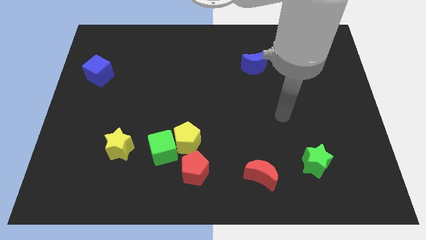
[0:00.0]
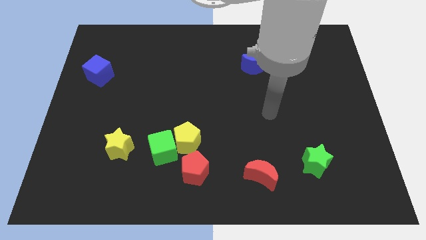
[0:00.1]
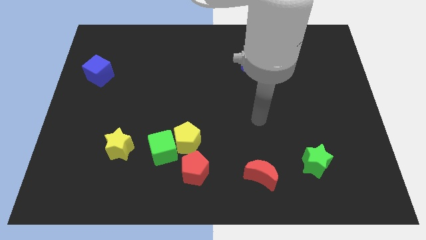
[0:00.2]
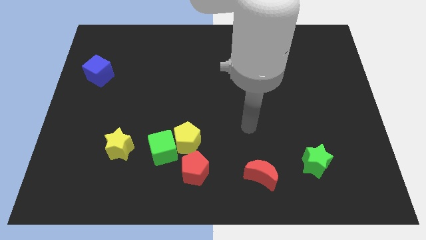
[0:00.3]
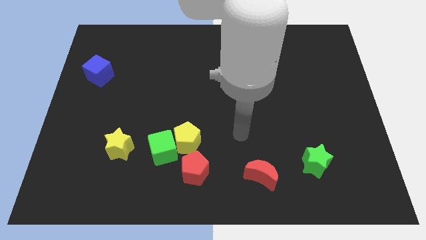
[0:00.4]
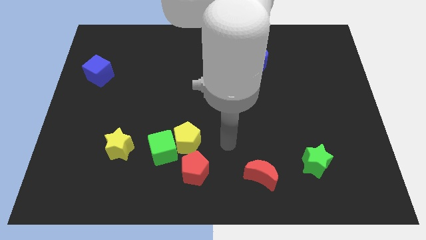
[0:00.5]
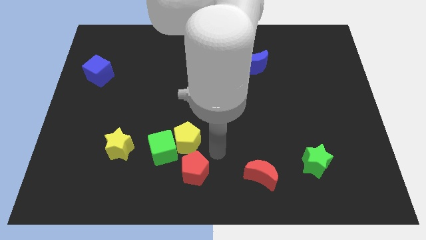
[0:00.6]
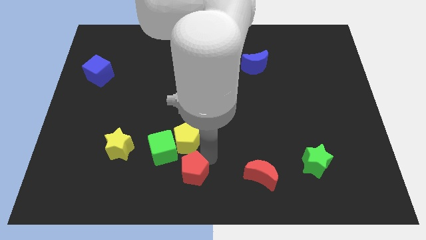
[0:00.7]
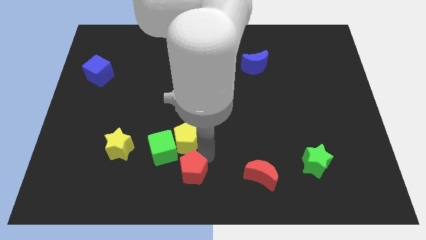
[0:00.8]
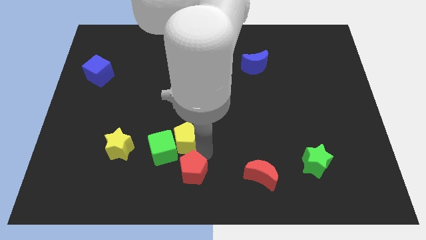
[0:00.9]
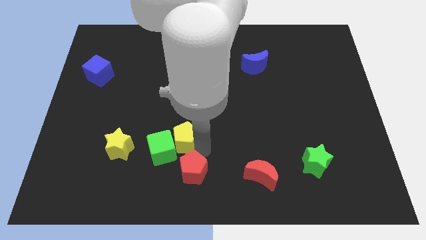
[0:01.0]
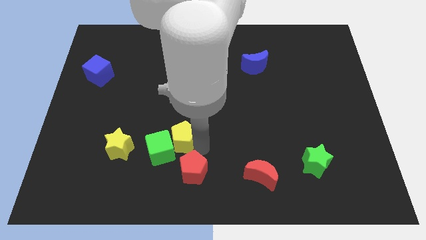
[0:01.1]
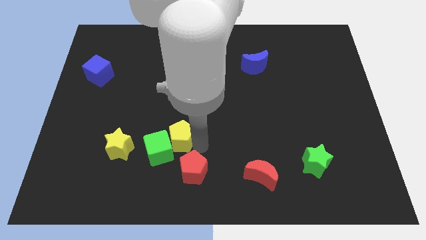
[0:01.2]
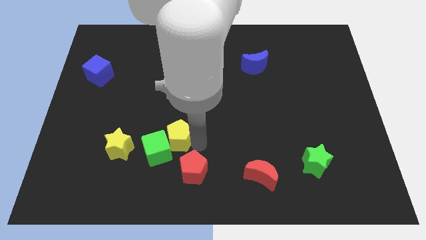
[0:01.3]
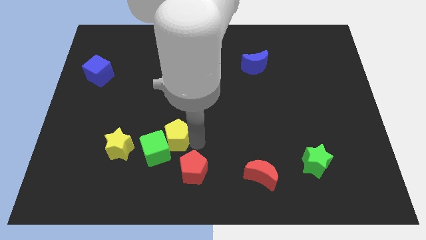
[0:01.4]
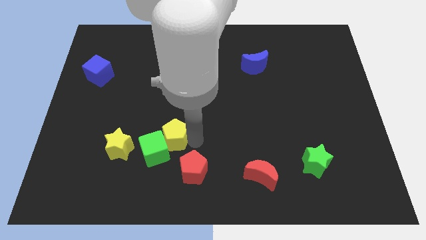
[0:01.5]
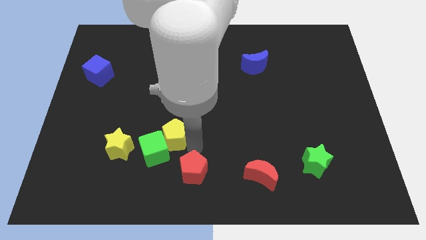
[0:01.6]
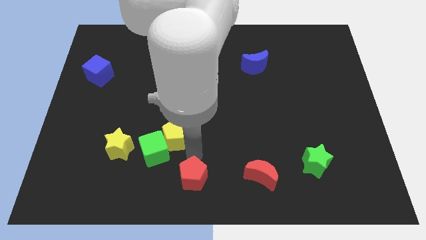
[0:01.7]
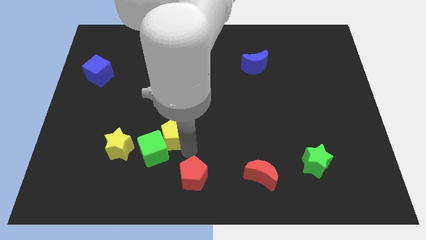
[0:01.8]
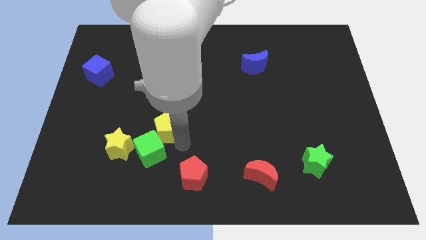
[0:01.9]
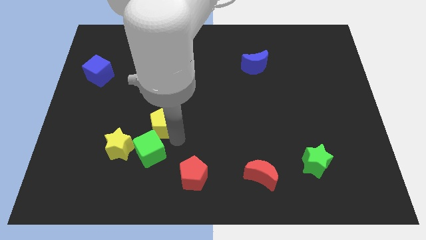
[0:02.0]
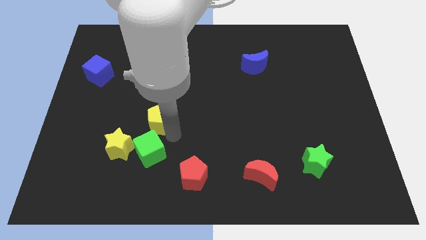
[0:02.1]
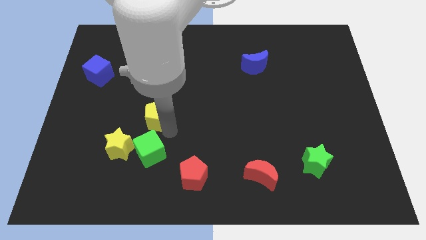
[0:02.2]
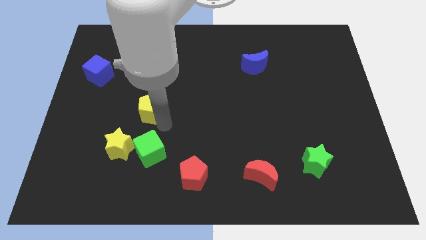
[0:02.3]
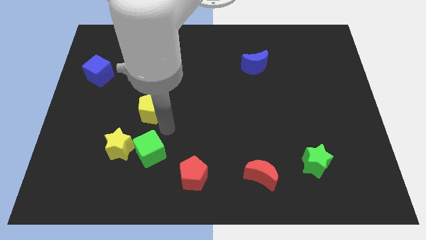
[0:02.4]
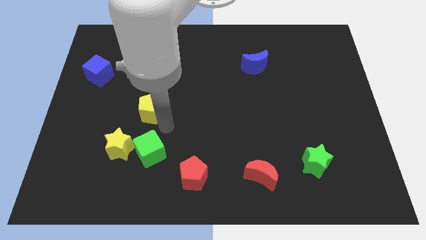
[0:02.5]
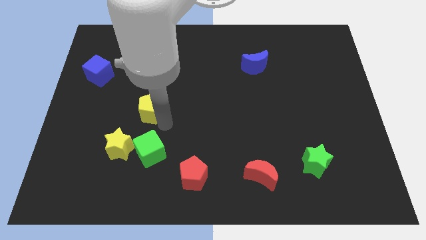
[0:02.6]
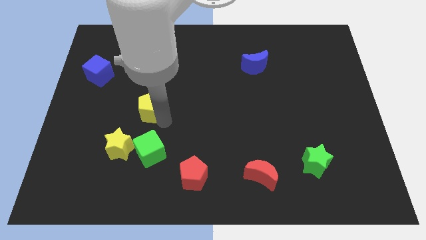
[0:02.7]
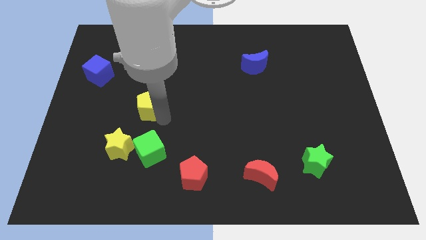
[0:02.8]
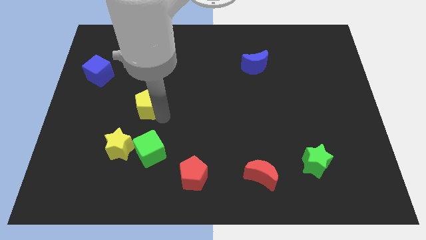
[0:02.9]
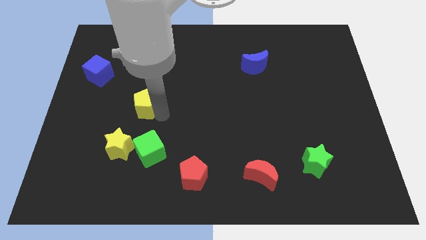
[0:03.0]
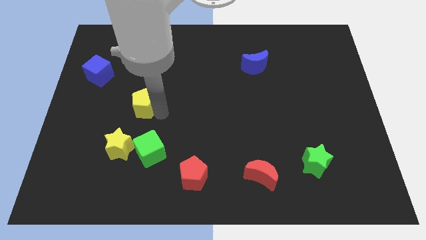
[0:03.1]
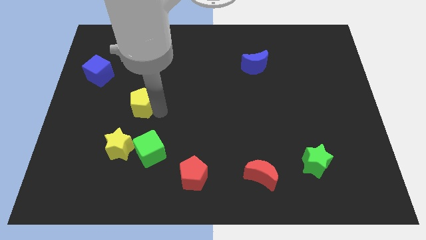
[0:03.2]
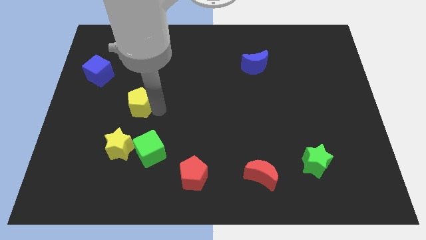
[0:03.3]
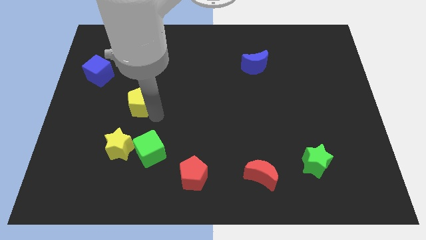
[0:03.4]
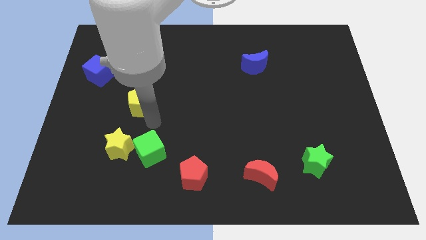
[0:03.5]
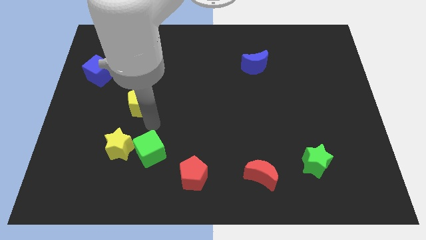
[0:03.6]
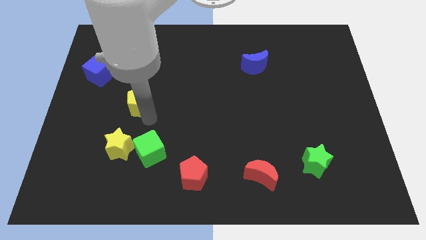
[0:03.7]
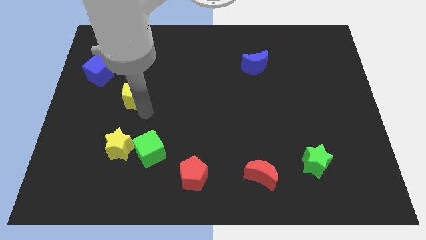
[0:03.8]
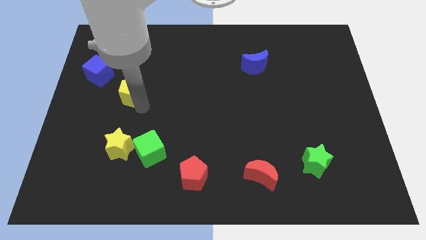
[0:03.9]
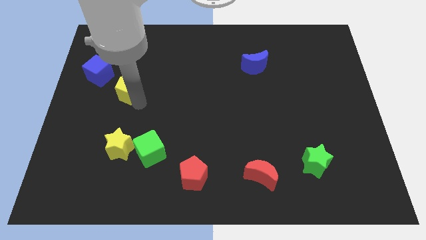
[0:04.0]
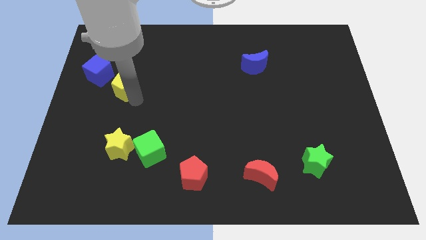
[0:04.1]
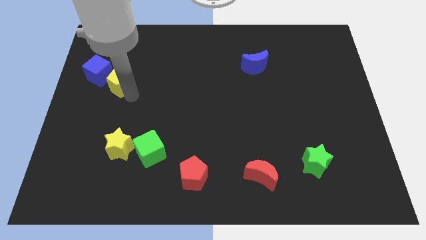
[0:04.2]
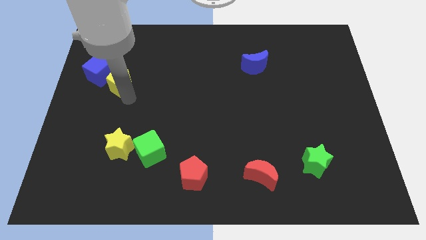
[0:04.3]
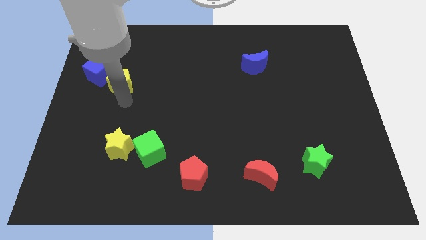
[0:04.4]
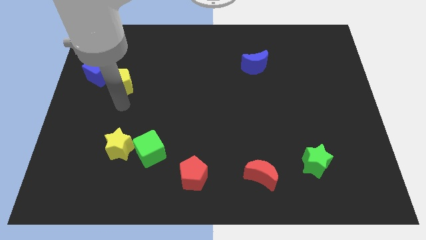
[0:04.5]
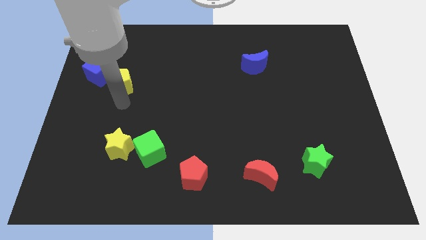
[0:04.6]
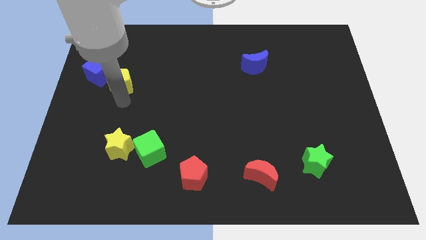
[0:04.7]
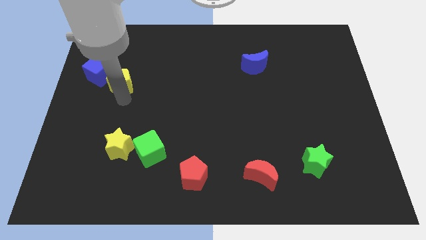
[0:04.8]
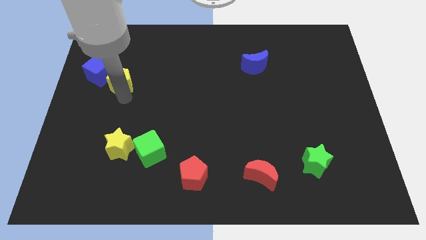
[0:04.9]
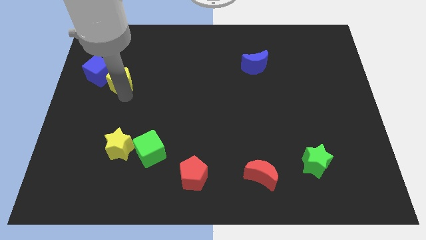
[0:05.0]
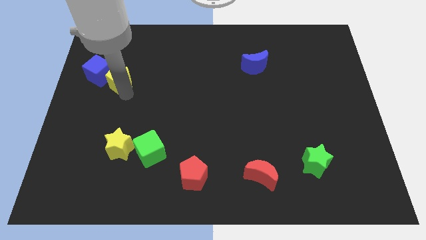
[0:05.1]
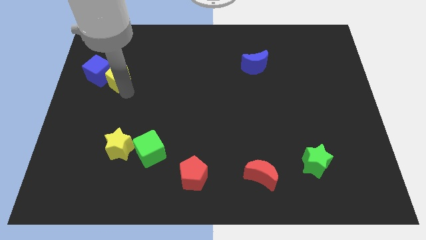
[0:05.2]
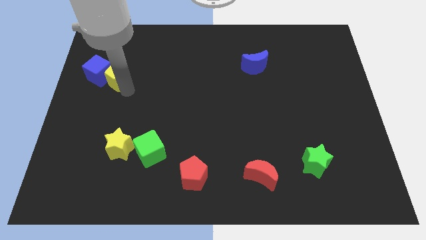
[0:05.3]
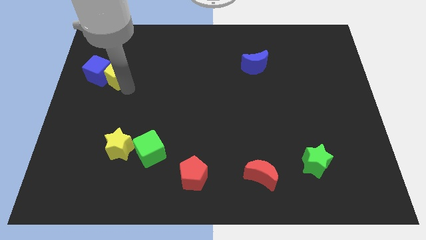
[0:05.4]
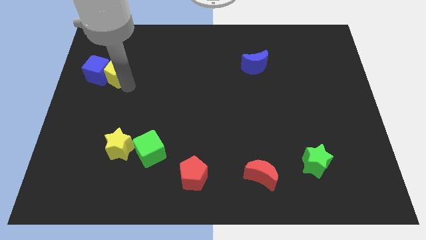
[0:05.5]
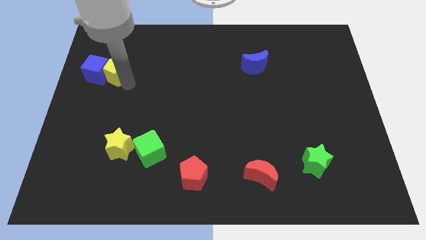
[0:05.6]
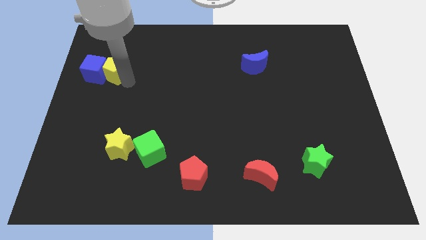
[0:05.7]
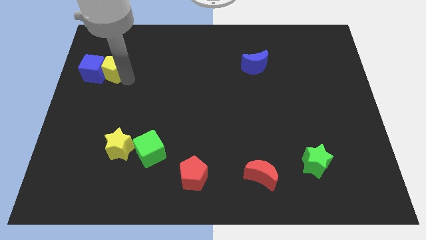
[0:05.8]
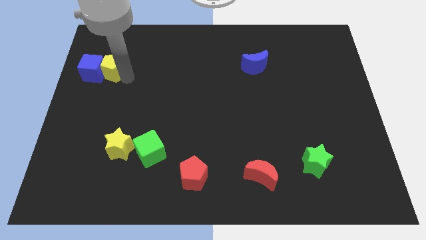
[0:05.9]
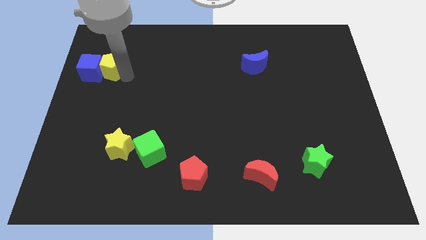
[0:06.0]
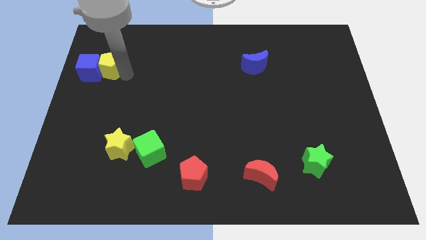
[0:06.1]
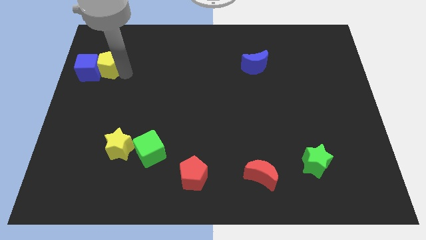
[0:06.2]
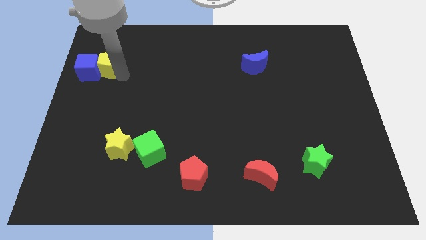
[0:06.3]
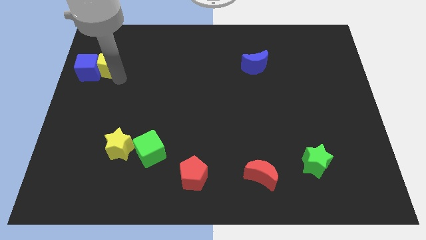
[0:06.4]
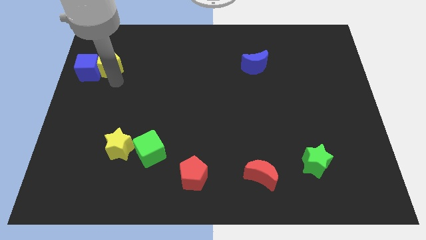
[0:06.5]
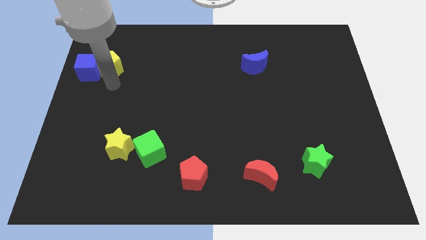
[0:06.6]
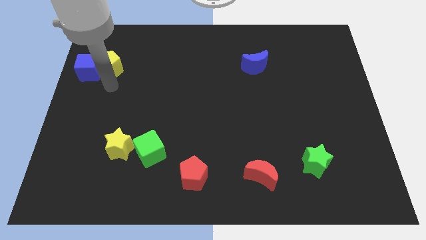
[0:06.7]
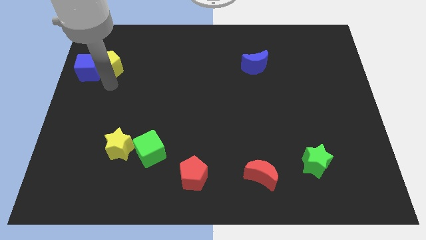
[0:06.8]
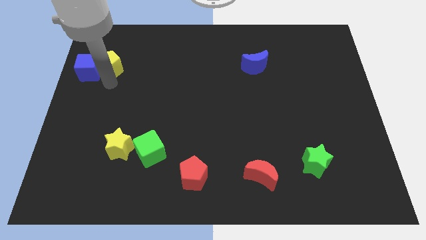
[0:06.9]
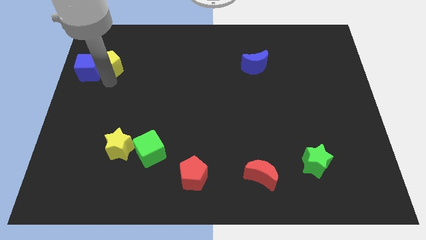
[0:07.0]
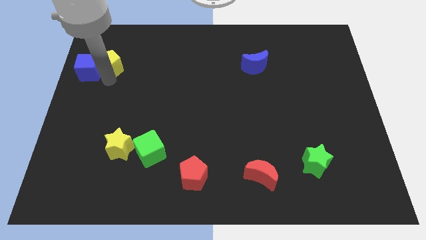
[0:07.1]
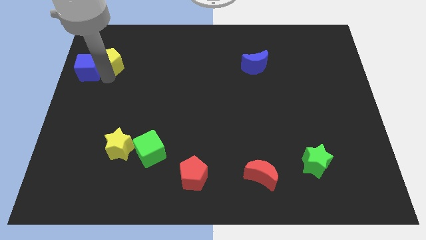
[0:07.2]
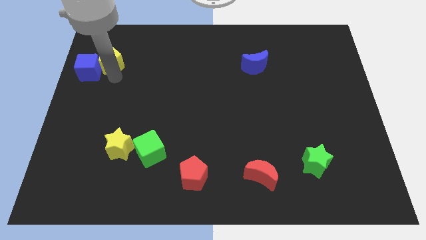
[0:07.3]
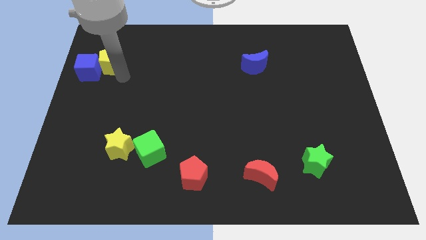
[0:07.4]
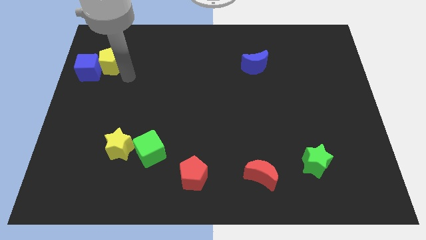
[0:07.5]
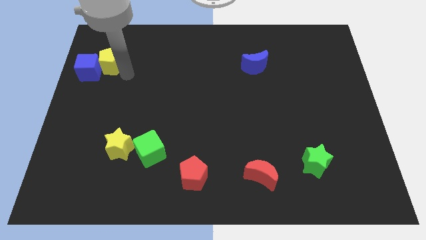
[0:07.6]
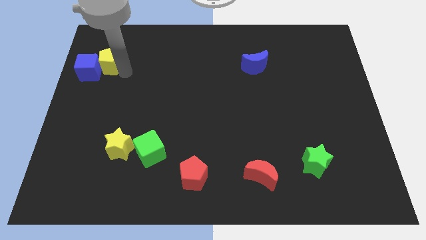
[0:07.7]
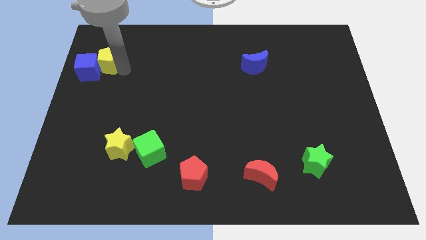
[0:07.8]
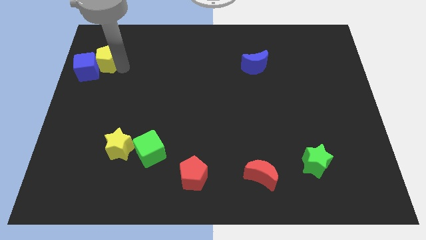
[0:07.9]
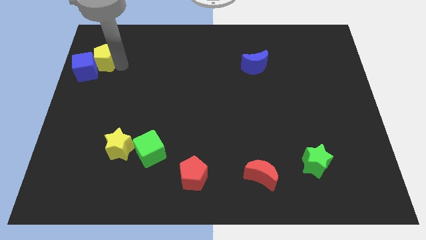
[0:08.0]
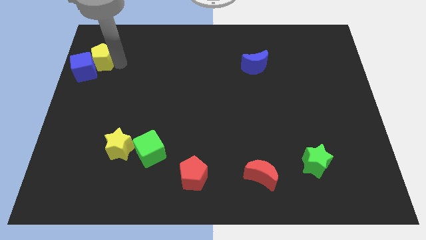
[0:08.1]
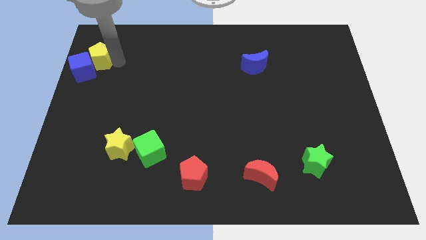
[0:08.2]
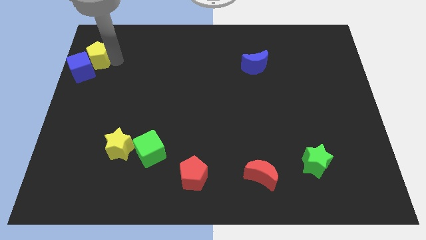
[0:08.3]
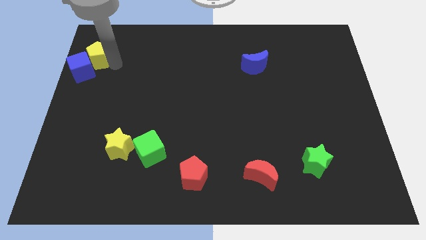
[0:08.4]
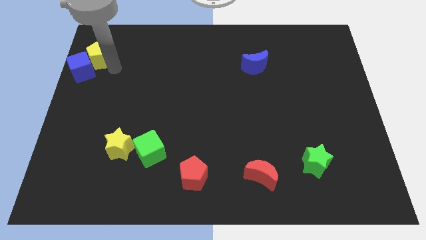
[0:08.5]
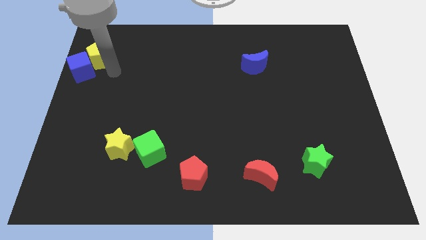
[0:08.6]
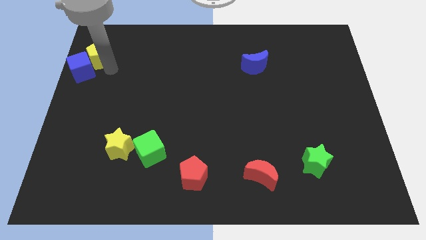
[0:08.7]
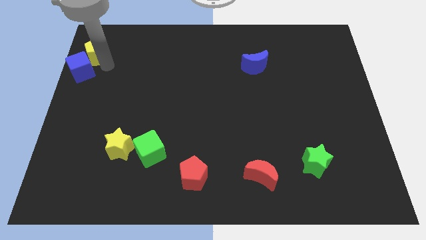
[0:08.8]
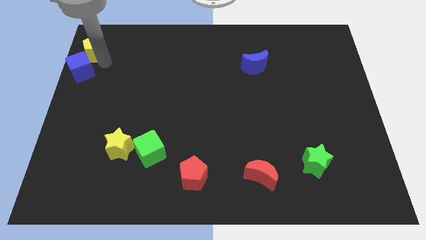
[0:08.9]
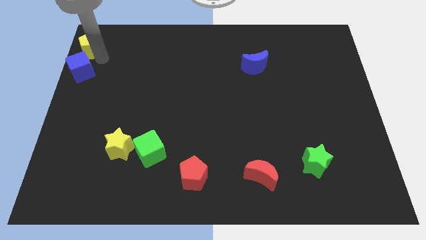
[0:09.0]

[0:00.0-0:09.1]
move the yellow pentagon to the upper left corner
